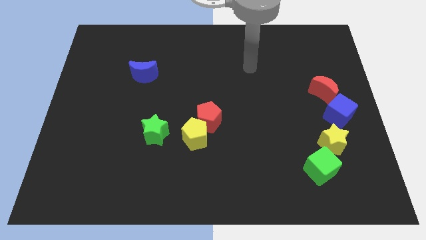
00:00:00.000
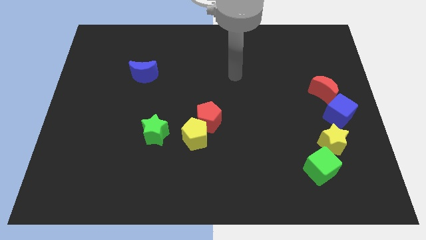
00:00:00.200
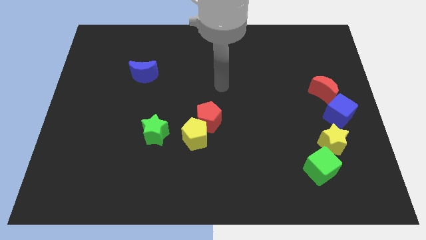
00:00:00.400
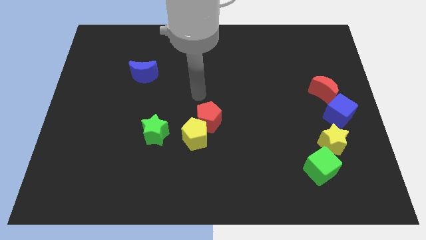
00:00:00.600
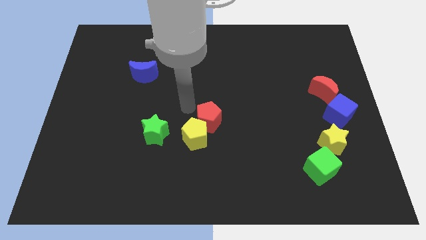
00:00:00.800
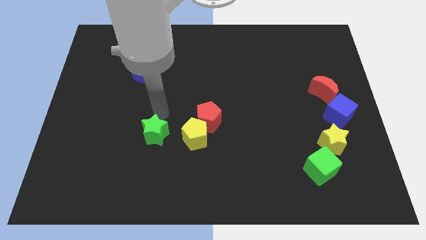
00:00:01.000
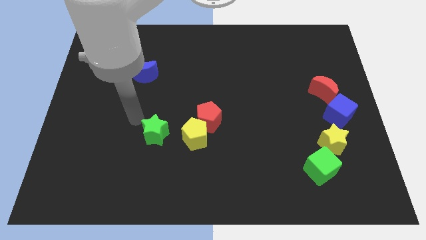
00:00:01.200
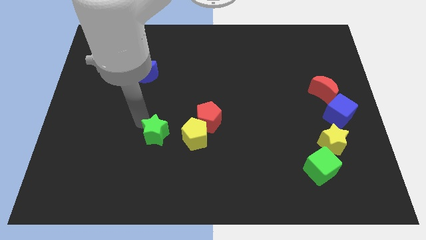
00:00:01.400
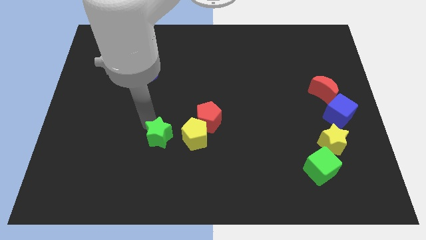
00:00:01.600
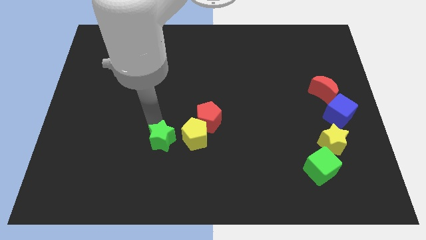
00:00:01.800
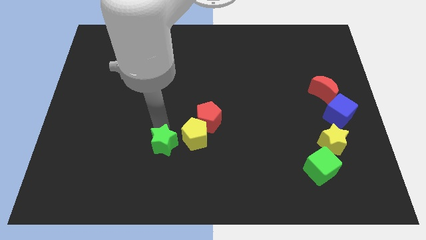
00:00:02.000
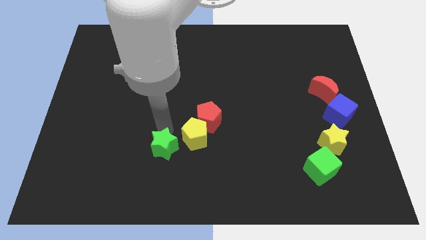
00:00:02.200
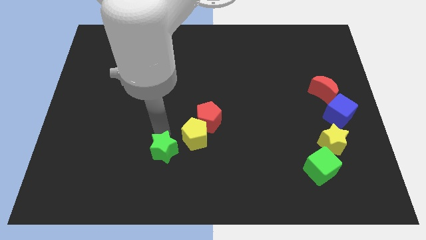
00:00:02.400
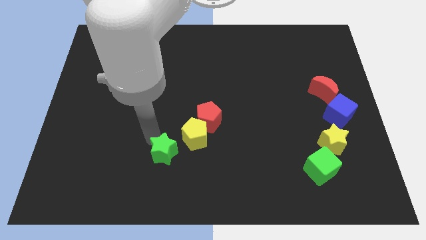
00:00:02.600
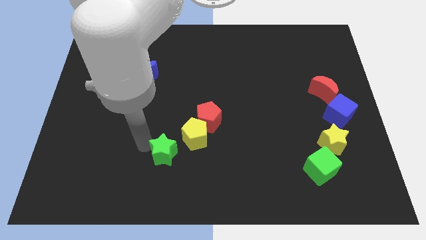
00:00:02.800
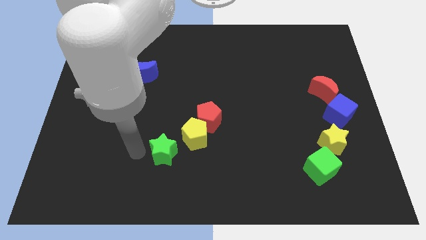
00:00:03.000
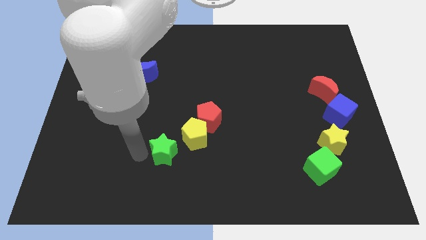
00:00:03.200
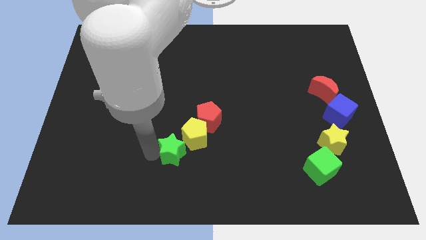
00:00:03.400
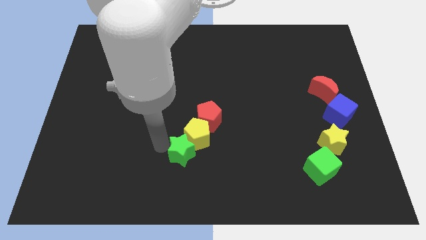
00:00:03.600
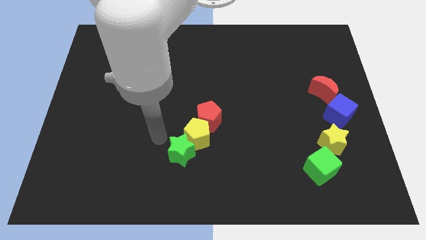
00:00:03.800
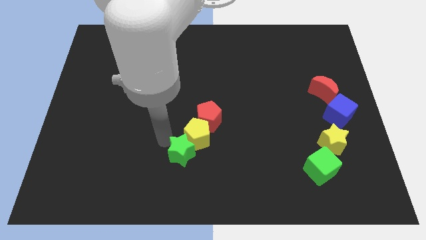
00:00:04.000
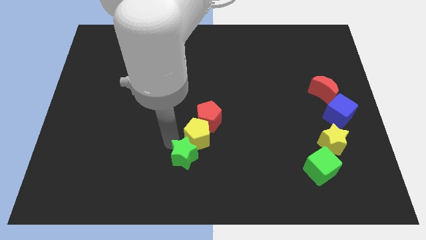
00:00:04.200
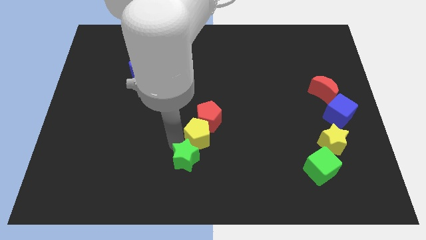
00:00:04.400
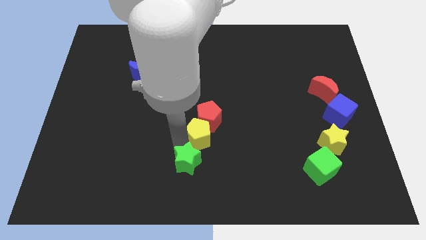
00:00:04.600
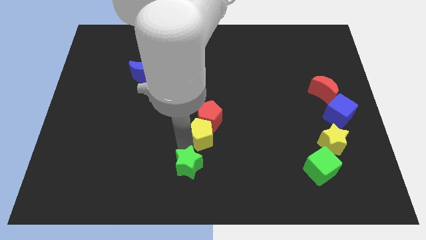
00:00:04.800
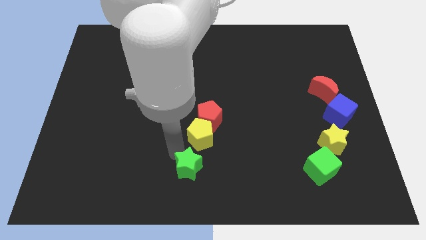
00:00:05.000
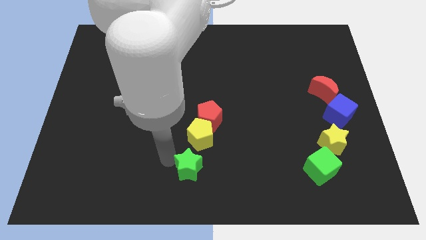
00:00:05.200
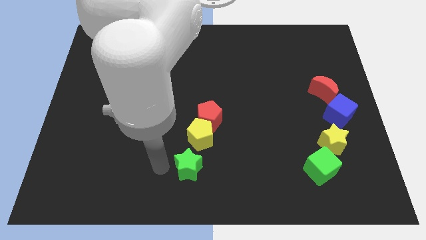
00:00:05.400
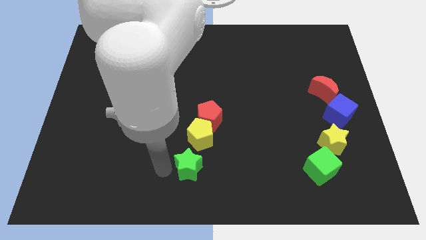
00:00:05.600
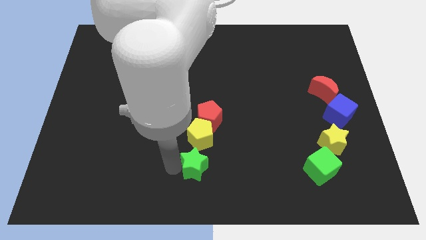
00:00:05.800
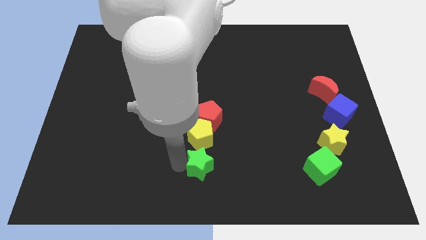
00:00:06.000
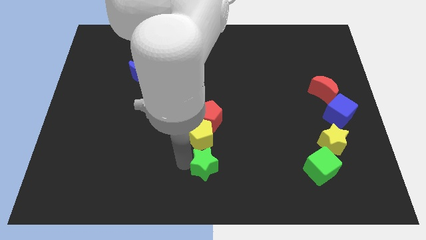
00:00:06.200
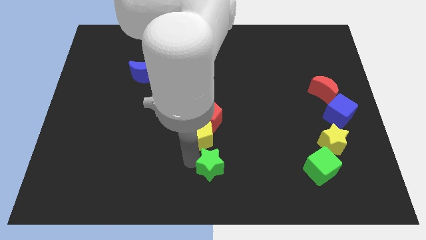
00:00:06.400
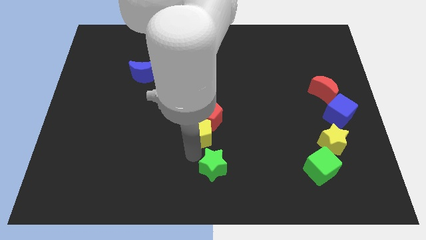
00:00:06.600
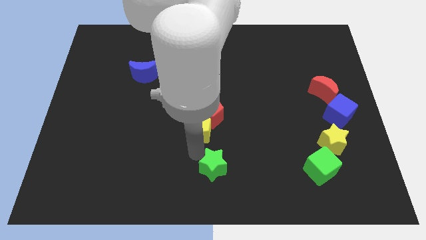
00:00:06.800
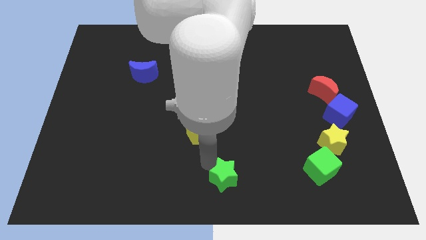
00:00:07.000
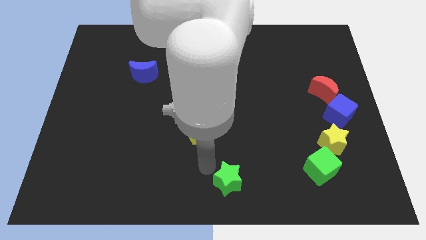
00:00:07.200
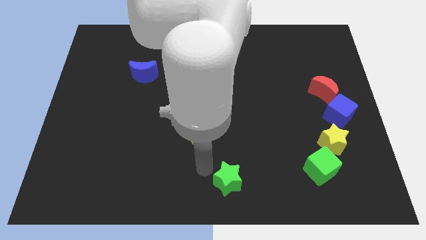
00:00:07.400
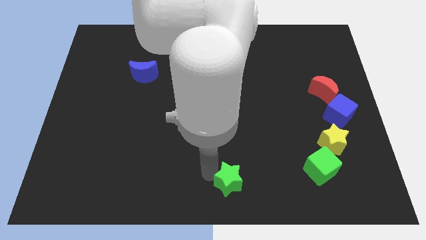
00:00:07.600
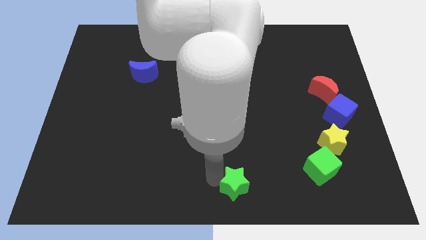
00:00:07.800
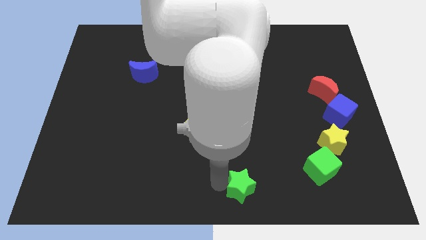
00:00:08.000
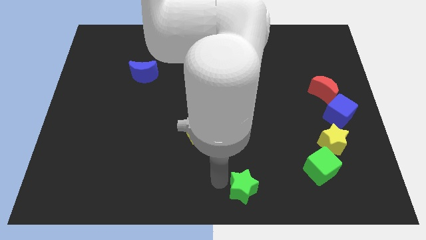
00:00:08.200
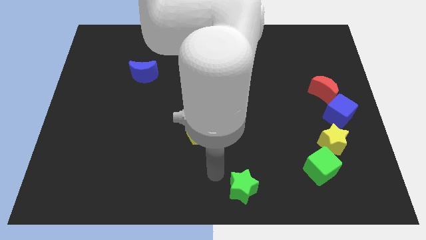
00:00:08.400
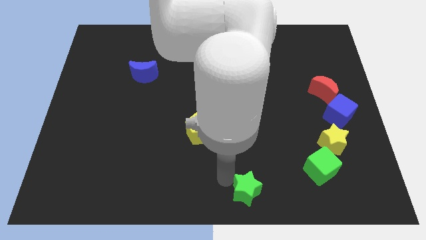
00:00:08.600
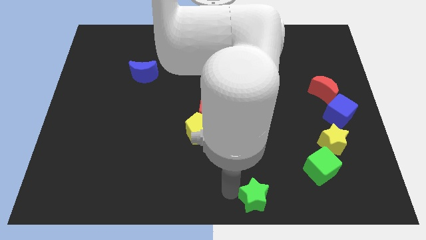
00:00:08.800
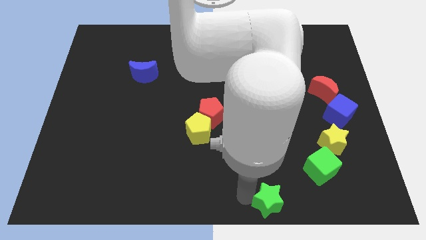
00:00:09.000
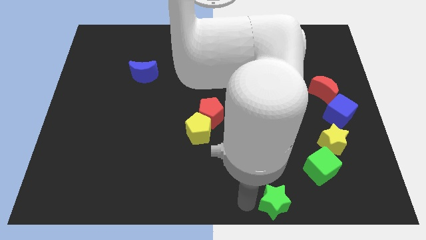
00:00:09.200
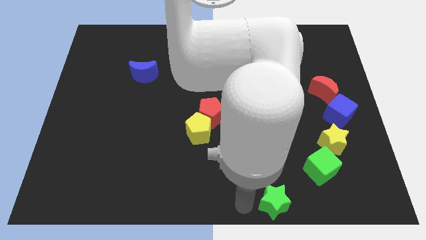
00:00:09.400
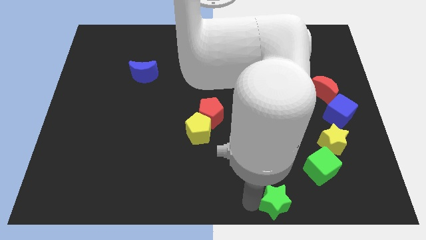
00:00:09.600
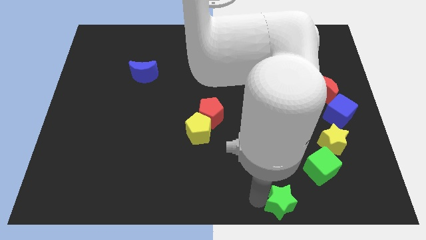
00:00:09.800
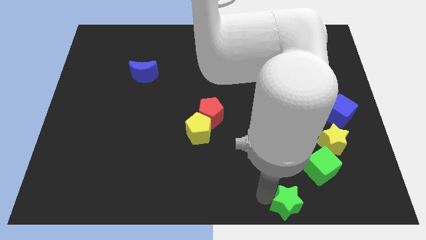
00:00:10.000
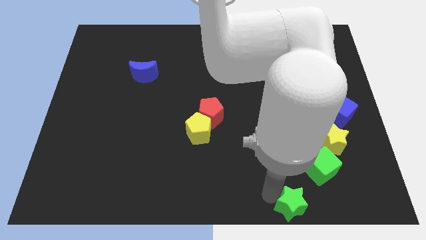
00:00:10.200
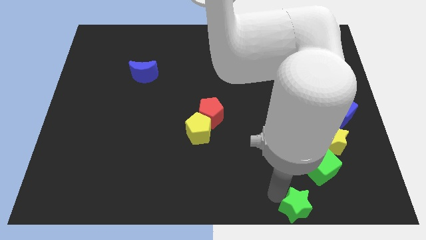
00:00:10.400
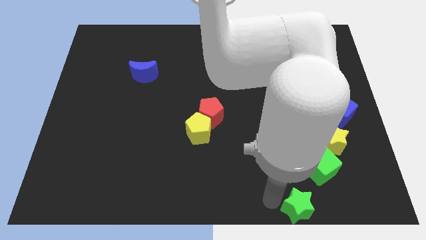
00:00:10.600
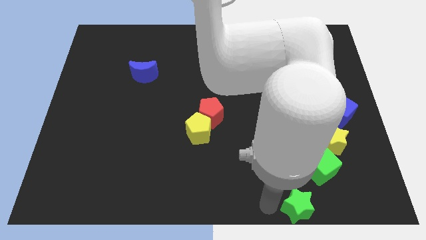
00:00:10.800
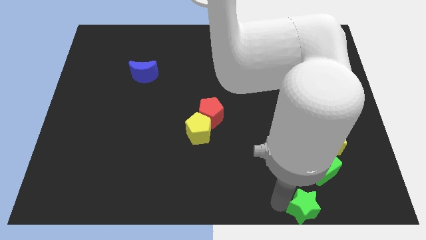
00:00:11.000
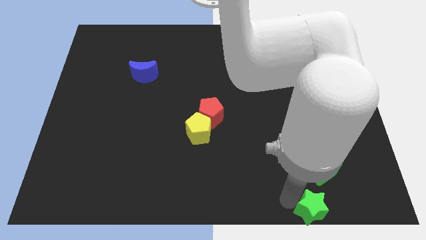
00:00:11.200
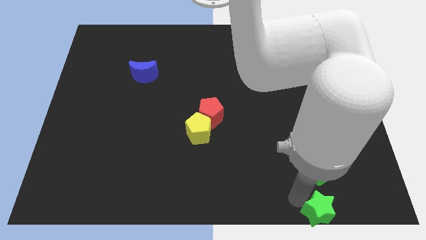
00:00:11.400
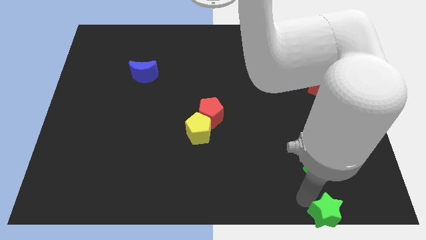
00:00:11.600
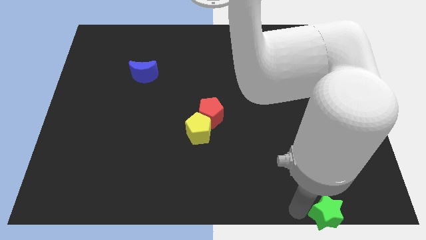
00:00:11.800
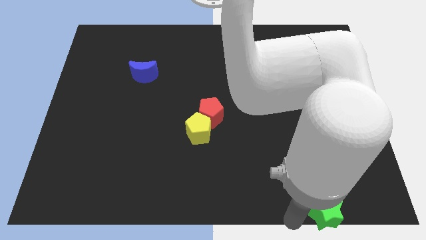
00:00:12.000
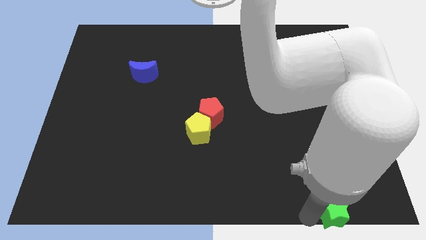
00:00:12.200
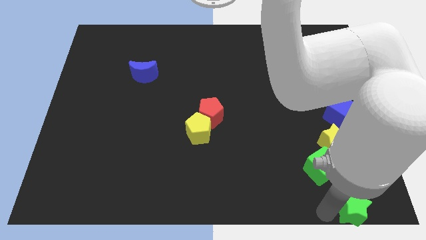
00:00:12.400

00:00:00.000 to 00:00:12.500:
push the green star to the bottom right
